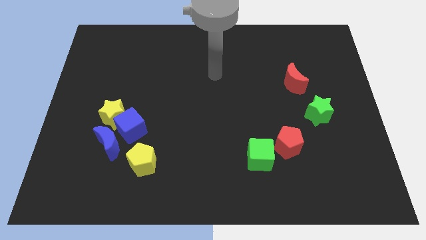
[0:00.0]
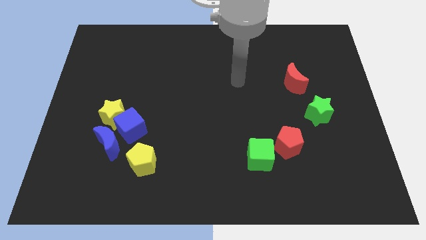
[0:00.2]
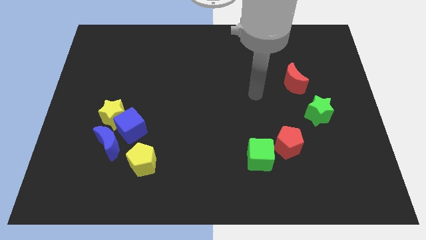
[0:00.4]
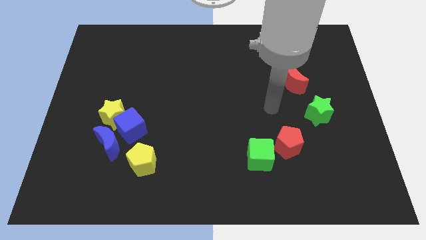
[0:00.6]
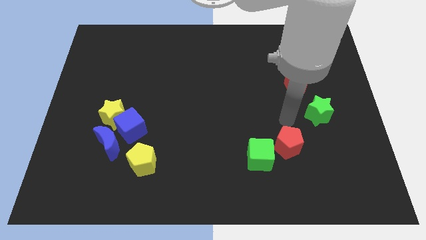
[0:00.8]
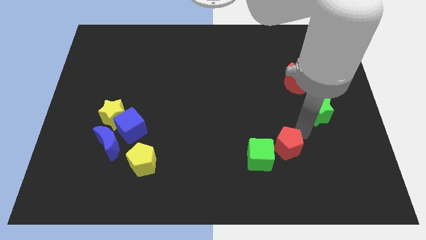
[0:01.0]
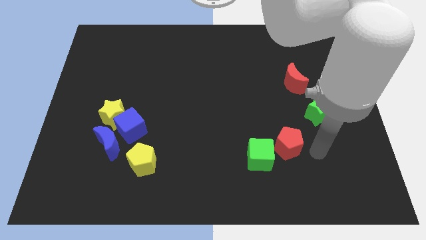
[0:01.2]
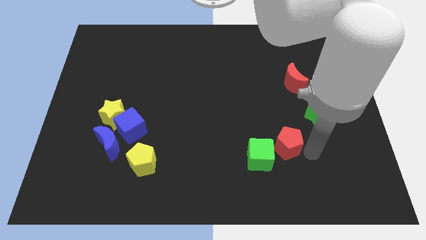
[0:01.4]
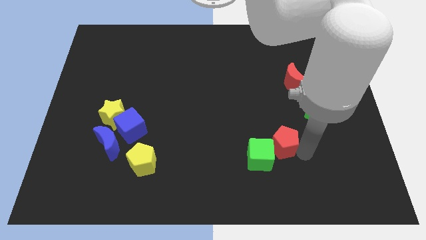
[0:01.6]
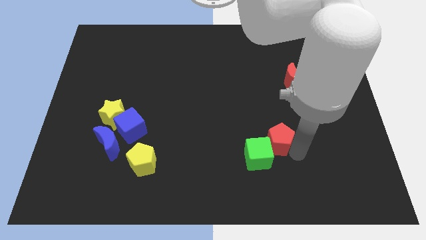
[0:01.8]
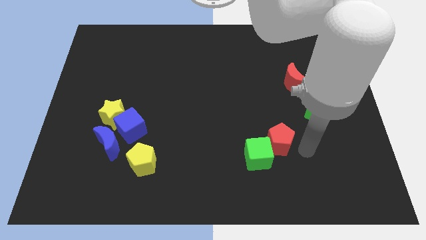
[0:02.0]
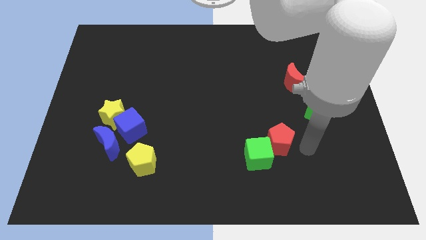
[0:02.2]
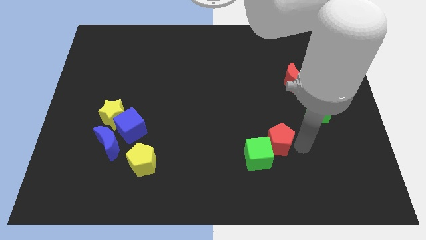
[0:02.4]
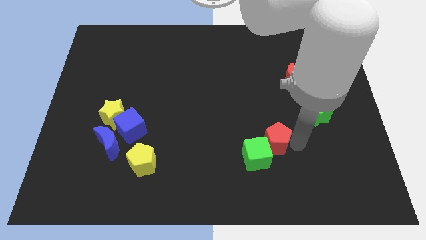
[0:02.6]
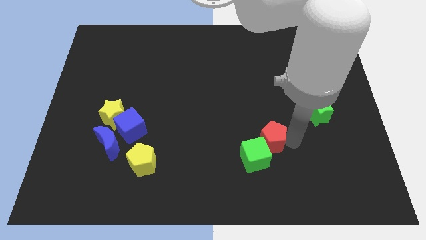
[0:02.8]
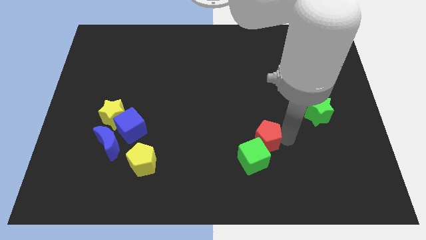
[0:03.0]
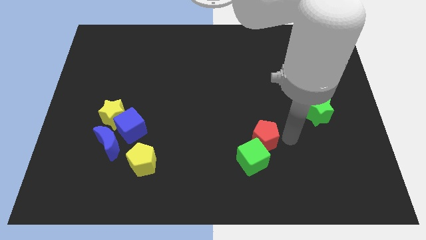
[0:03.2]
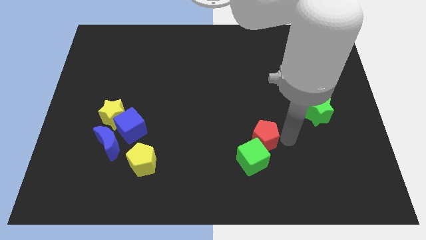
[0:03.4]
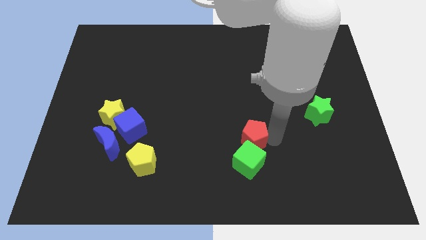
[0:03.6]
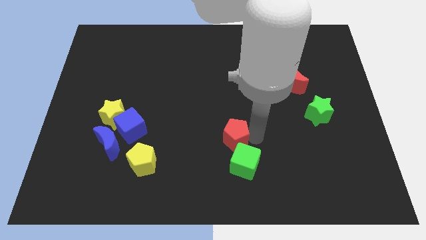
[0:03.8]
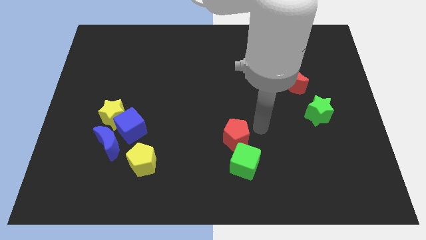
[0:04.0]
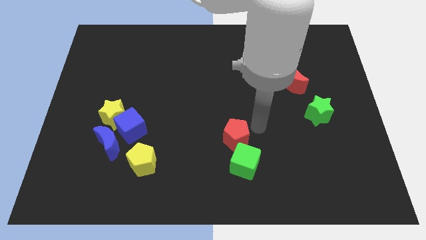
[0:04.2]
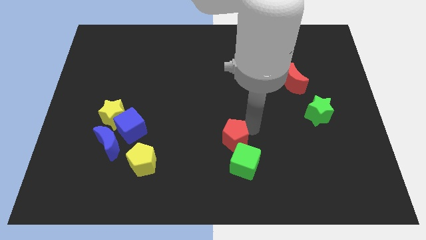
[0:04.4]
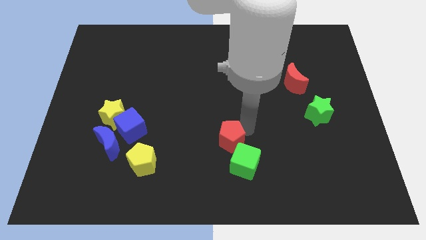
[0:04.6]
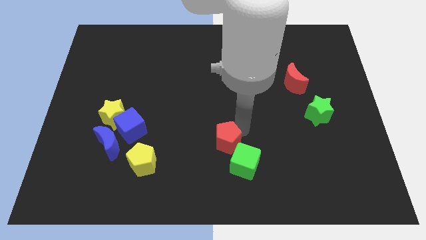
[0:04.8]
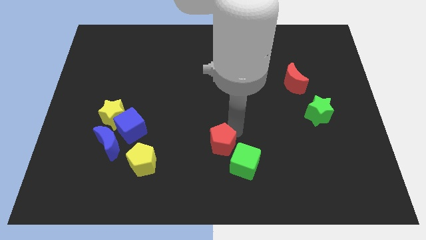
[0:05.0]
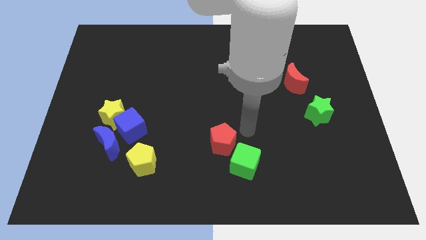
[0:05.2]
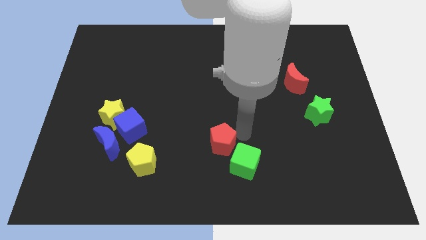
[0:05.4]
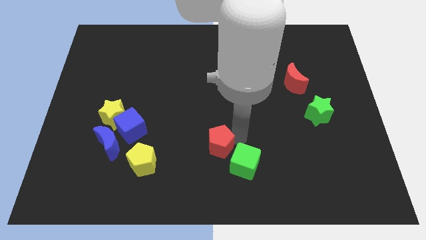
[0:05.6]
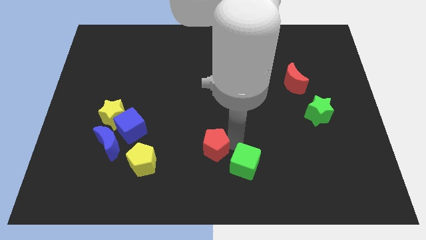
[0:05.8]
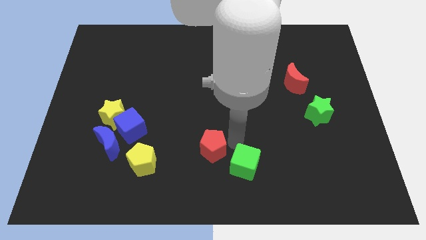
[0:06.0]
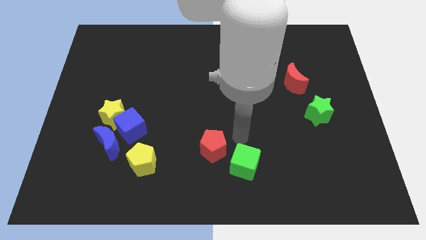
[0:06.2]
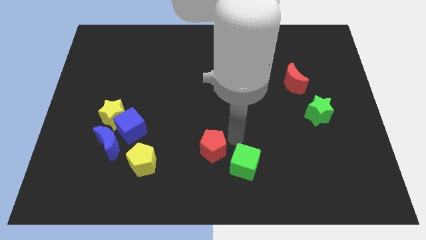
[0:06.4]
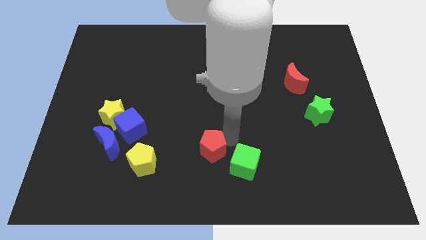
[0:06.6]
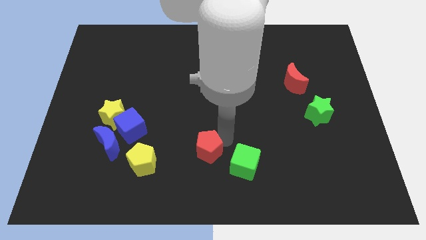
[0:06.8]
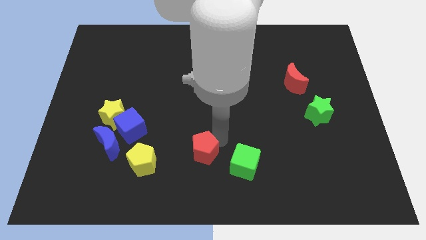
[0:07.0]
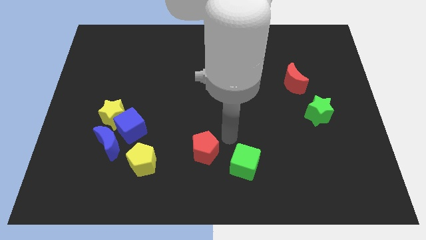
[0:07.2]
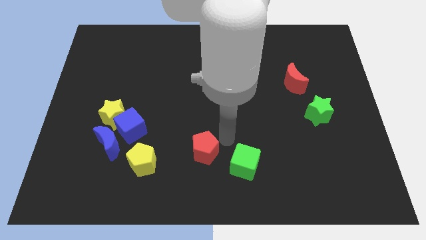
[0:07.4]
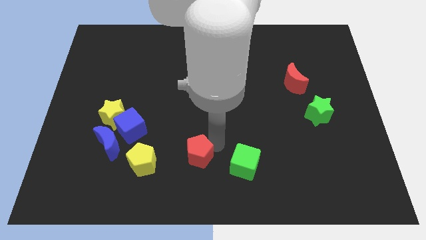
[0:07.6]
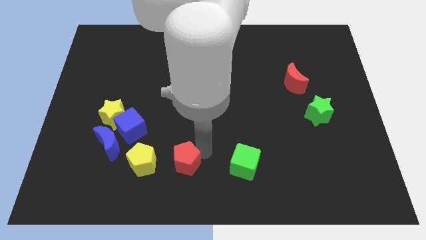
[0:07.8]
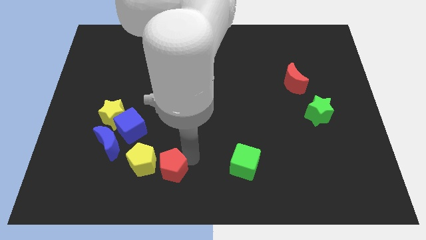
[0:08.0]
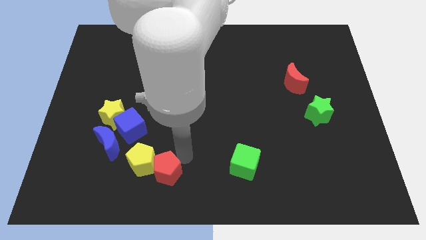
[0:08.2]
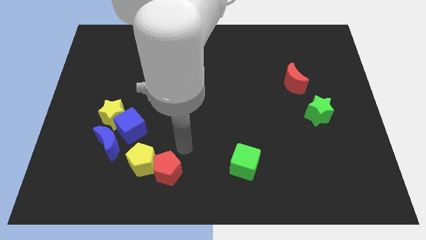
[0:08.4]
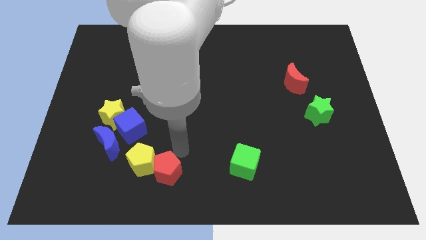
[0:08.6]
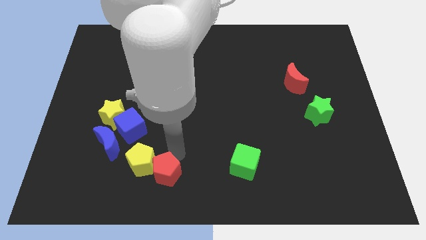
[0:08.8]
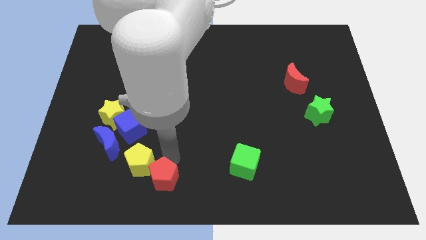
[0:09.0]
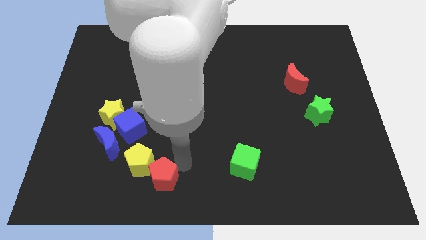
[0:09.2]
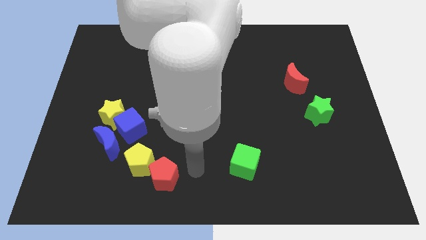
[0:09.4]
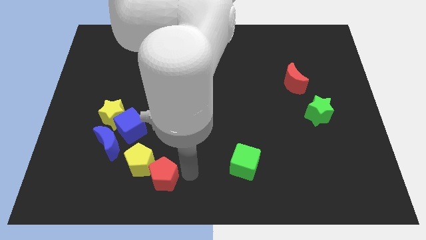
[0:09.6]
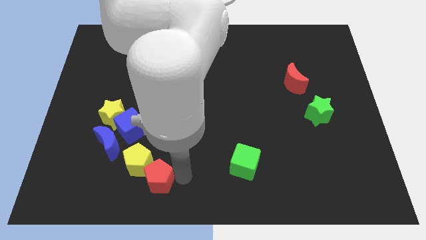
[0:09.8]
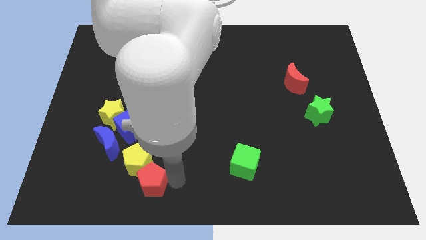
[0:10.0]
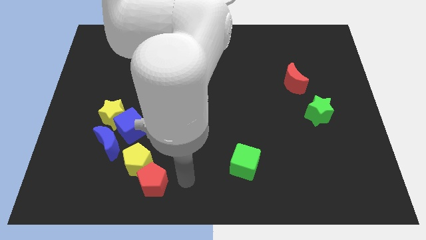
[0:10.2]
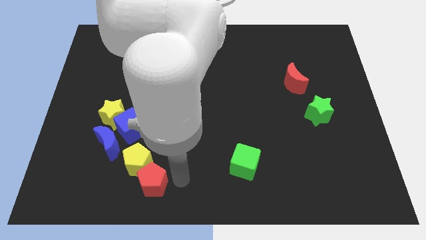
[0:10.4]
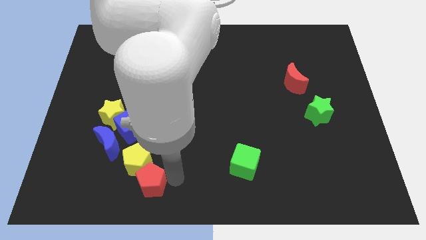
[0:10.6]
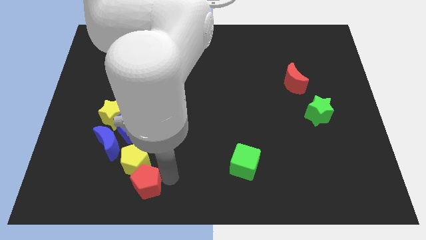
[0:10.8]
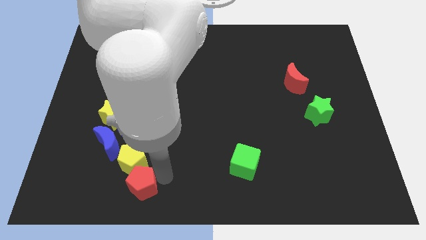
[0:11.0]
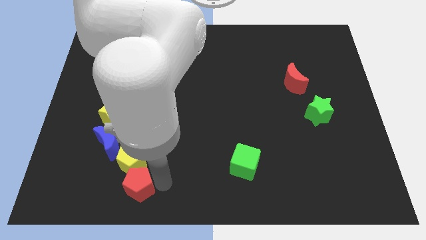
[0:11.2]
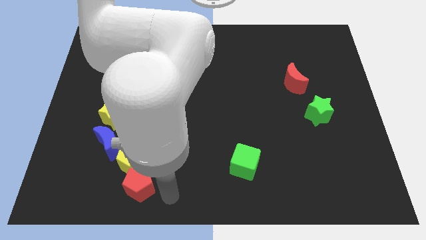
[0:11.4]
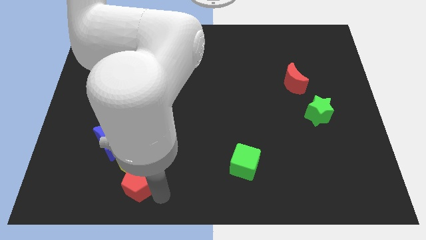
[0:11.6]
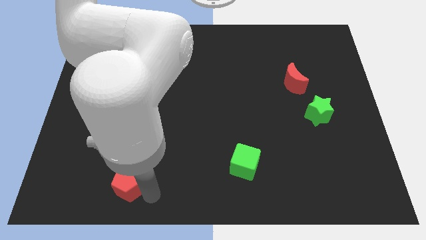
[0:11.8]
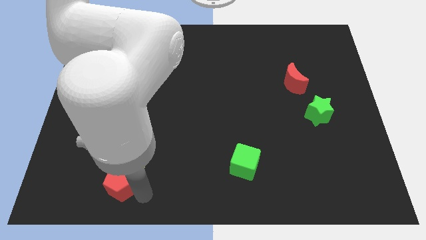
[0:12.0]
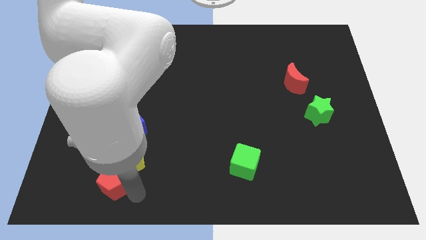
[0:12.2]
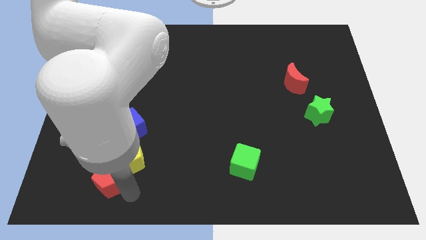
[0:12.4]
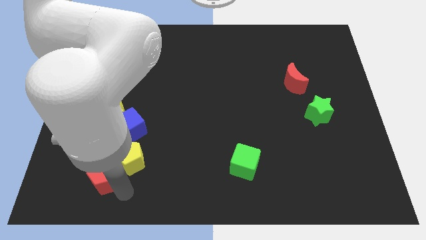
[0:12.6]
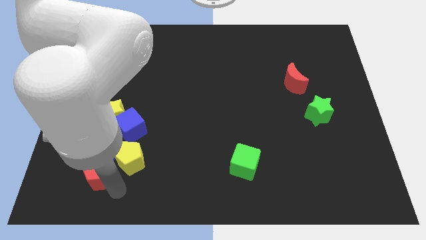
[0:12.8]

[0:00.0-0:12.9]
put the red pentagon to the bottom left of the blue moon
